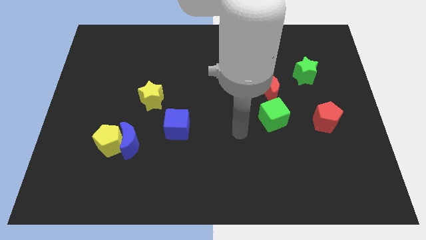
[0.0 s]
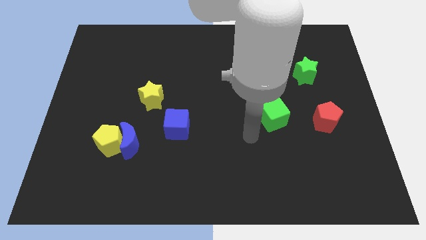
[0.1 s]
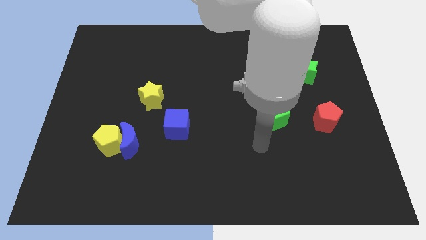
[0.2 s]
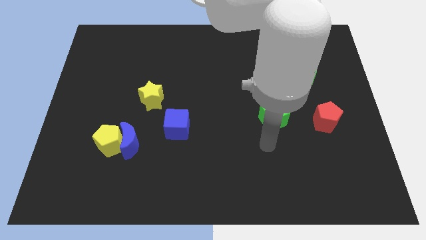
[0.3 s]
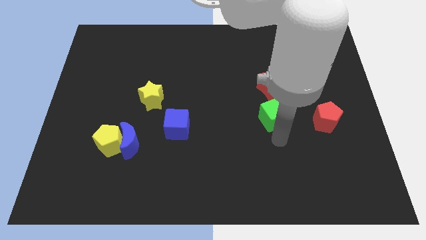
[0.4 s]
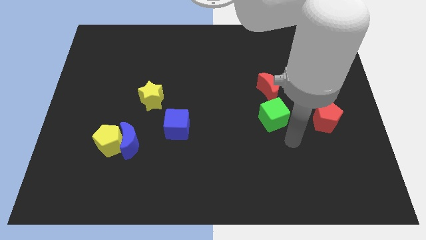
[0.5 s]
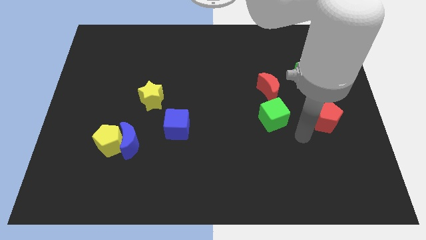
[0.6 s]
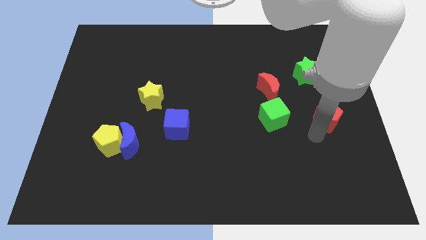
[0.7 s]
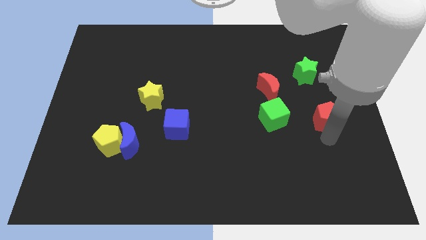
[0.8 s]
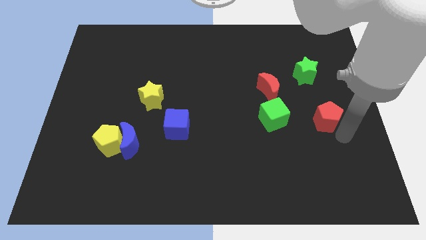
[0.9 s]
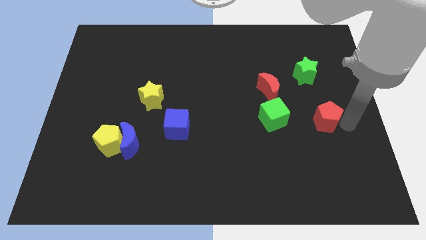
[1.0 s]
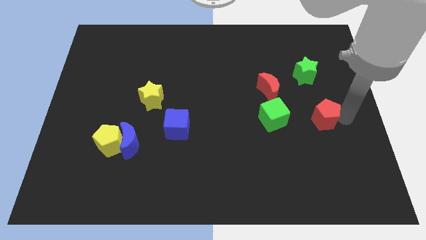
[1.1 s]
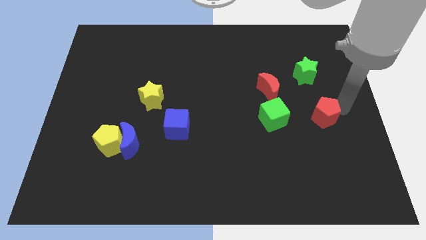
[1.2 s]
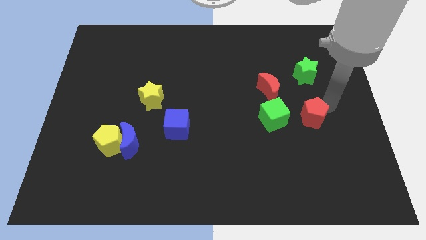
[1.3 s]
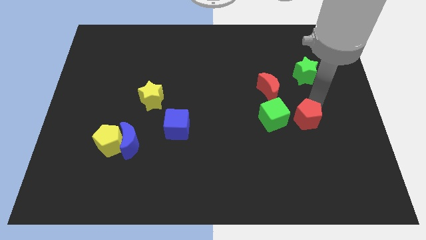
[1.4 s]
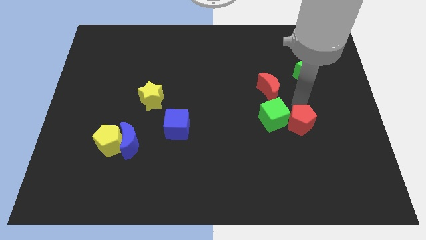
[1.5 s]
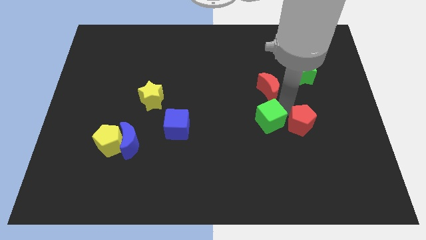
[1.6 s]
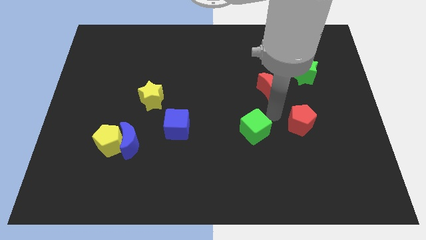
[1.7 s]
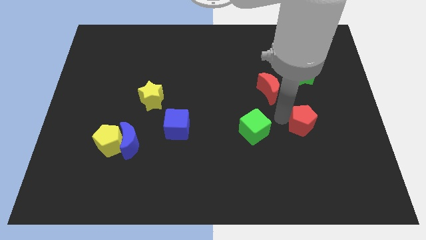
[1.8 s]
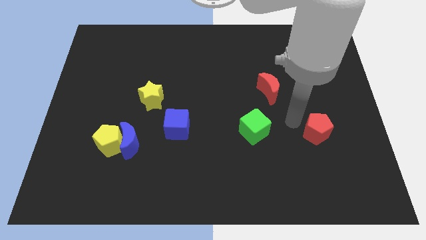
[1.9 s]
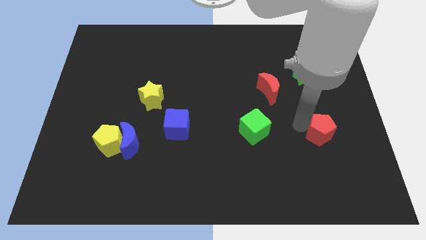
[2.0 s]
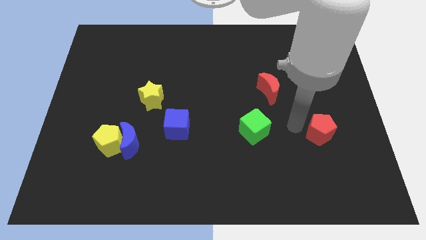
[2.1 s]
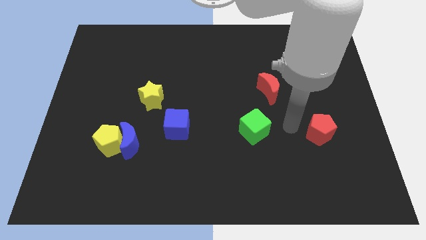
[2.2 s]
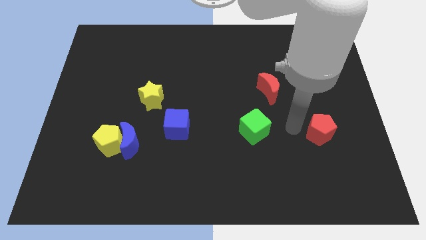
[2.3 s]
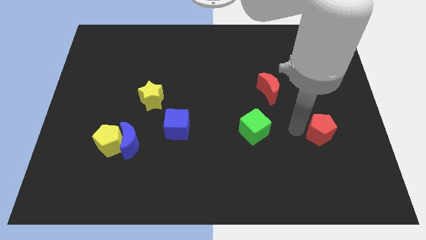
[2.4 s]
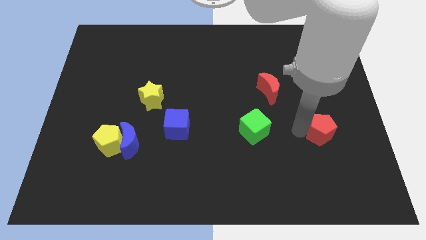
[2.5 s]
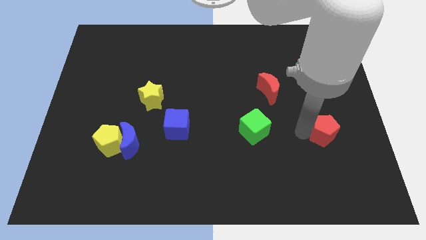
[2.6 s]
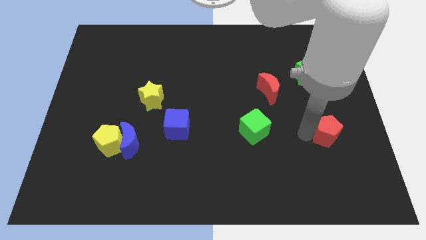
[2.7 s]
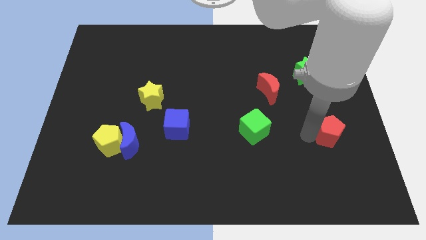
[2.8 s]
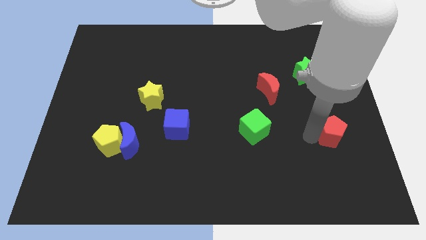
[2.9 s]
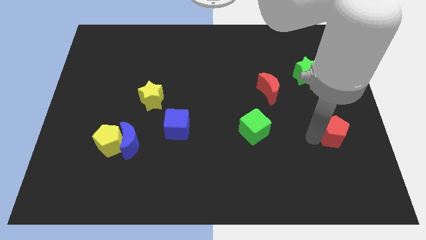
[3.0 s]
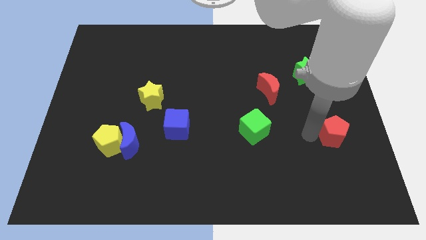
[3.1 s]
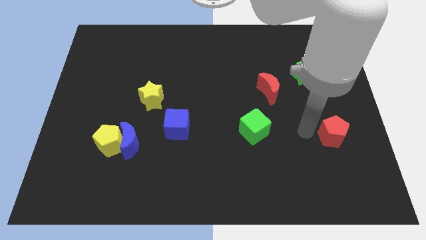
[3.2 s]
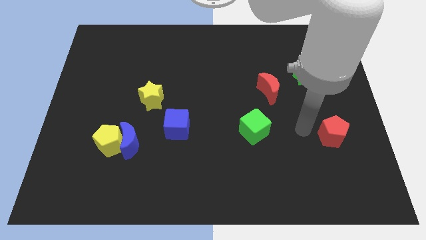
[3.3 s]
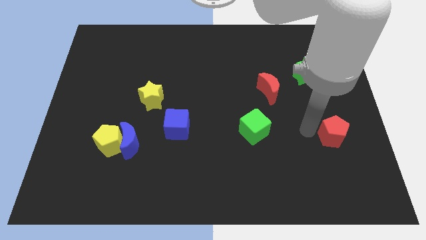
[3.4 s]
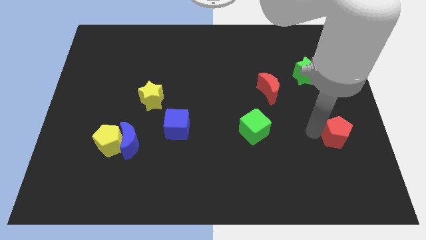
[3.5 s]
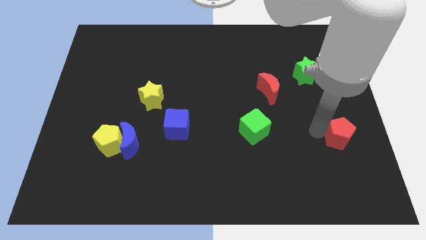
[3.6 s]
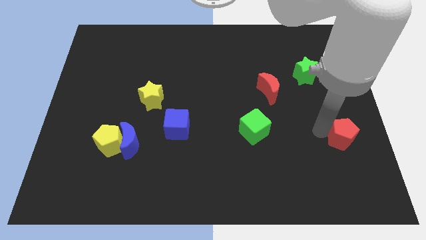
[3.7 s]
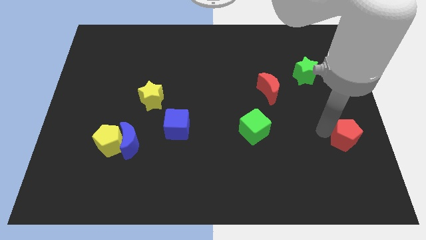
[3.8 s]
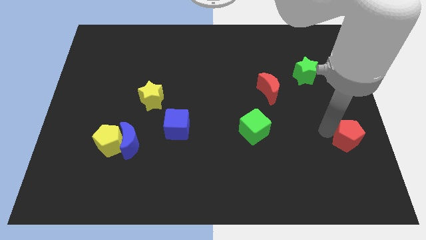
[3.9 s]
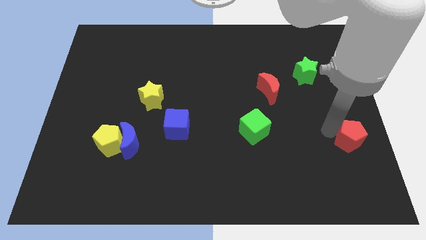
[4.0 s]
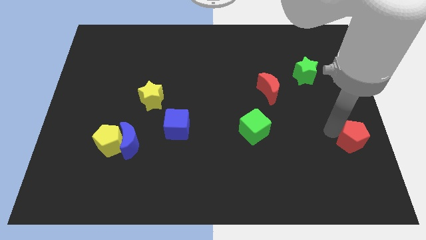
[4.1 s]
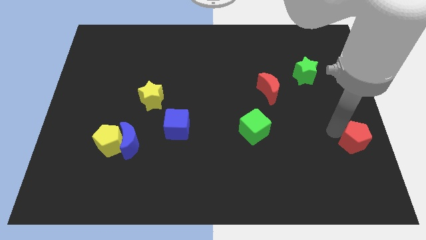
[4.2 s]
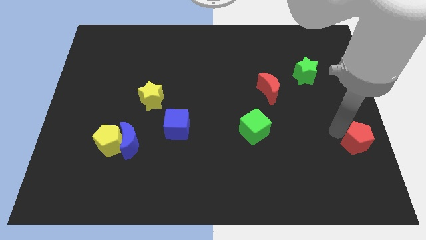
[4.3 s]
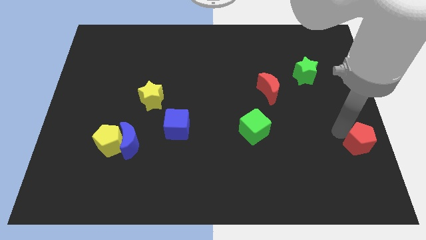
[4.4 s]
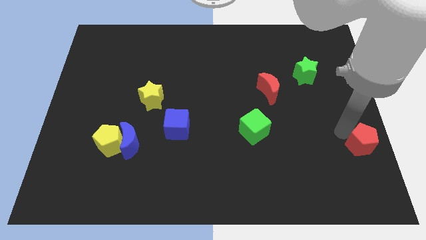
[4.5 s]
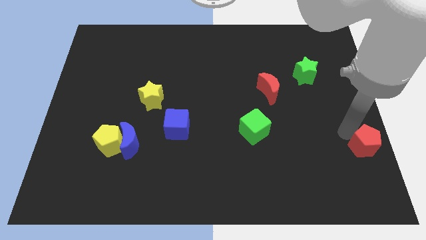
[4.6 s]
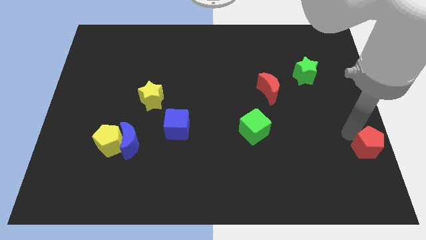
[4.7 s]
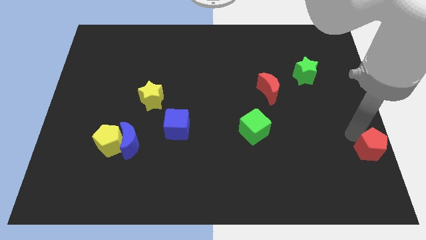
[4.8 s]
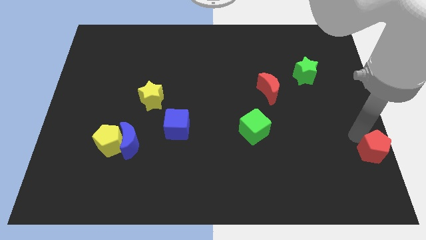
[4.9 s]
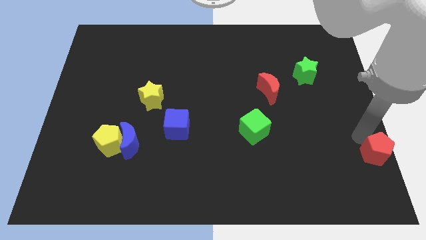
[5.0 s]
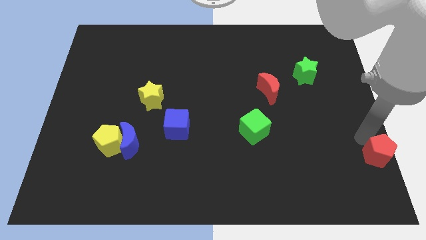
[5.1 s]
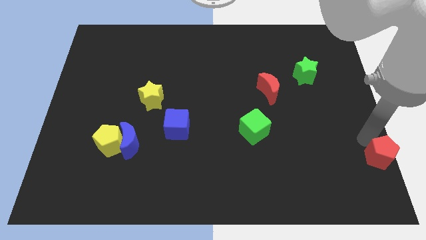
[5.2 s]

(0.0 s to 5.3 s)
slide the red pentagon to the bottom right of the board

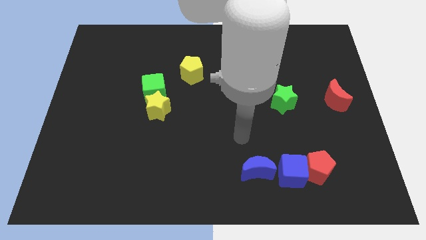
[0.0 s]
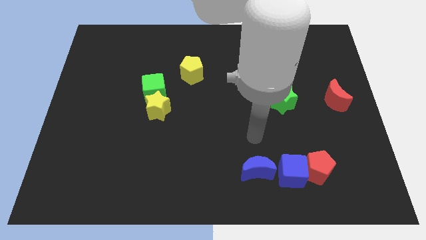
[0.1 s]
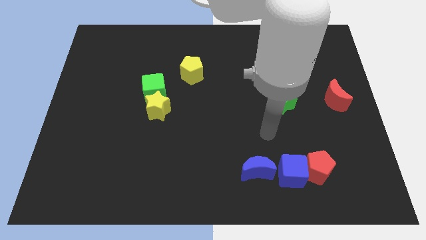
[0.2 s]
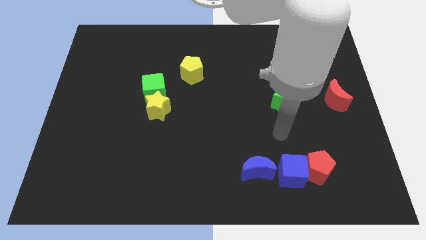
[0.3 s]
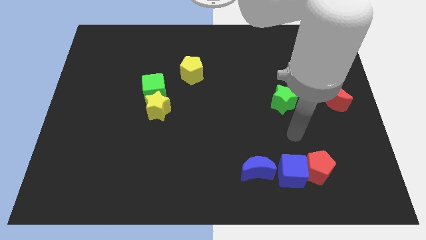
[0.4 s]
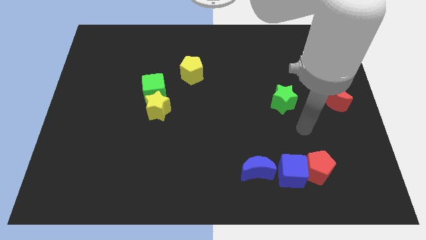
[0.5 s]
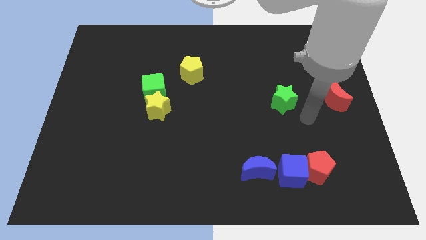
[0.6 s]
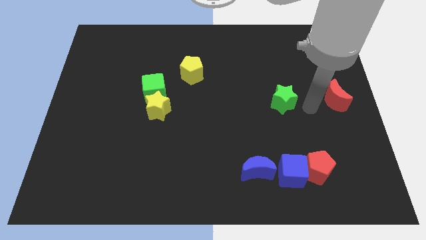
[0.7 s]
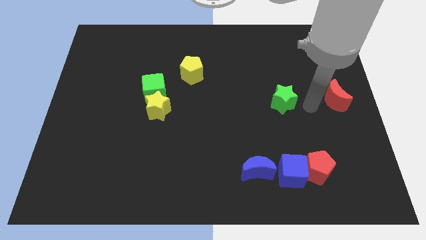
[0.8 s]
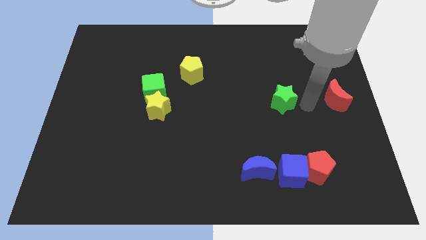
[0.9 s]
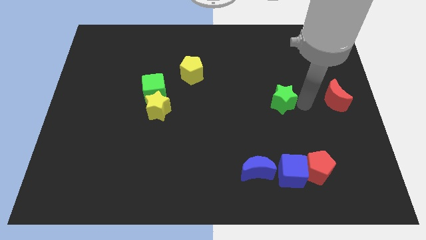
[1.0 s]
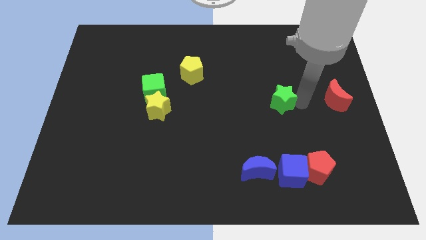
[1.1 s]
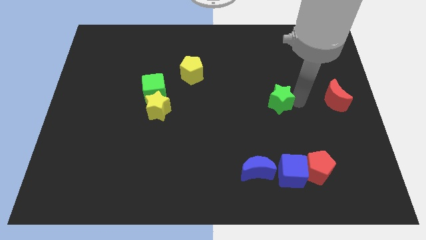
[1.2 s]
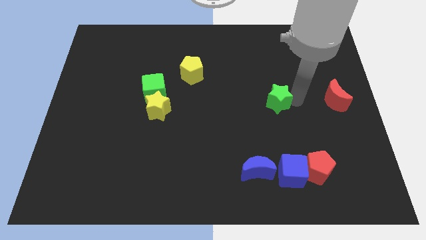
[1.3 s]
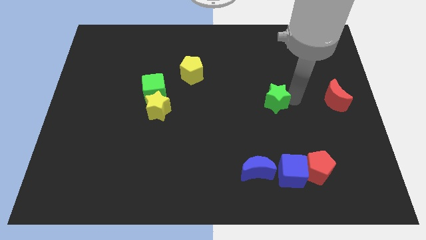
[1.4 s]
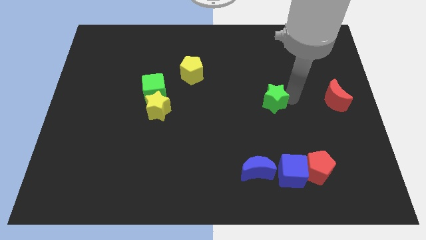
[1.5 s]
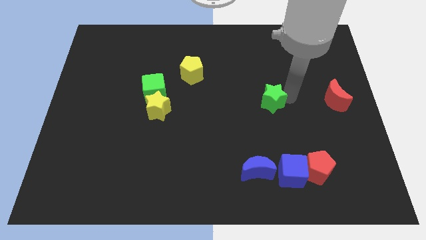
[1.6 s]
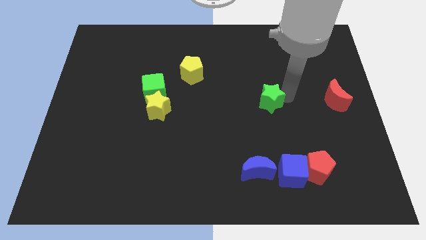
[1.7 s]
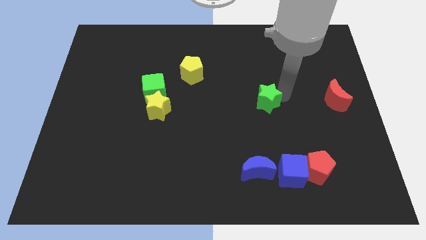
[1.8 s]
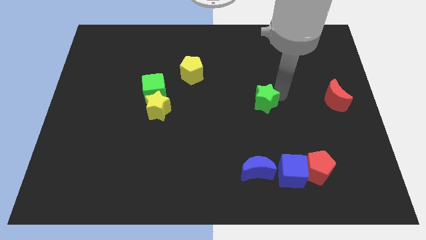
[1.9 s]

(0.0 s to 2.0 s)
put the green star to the center
